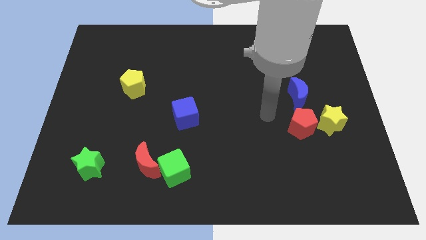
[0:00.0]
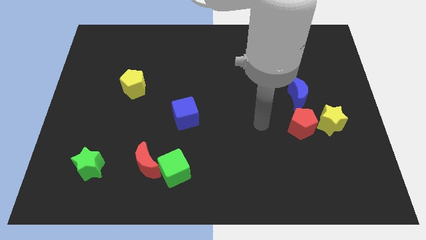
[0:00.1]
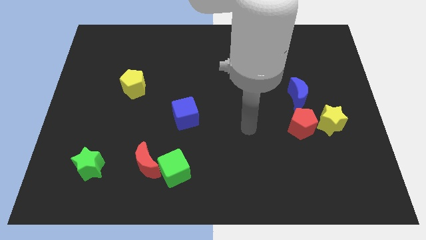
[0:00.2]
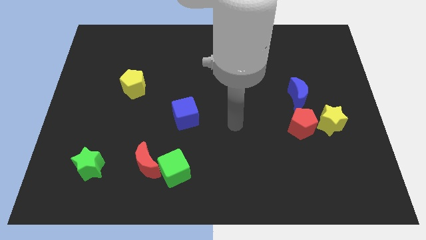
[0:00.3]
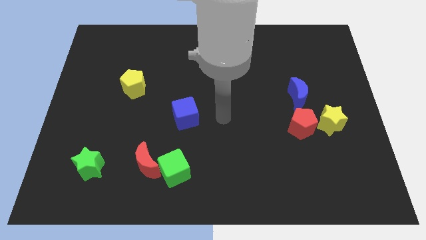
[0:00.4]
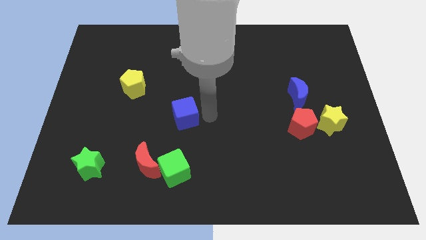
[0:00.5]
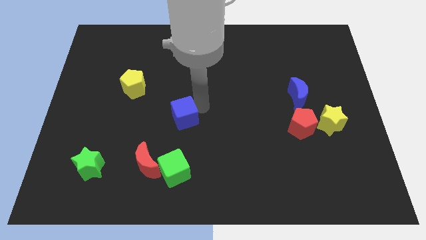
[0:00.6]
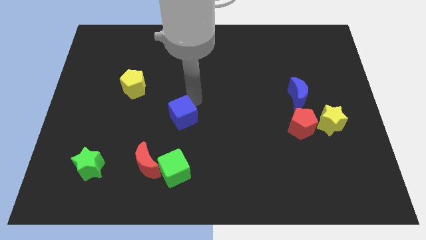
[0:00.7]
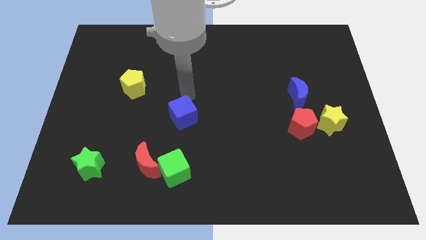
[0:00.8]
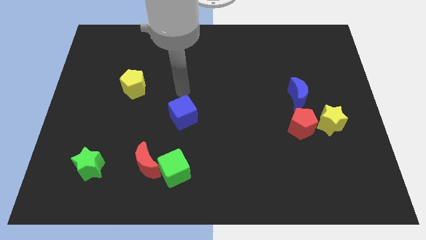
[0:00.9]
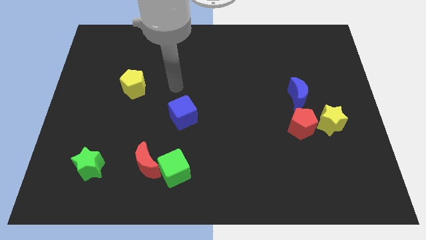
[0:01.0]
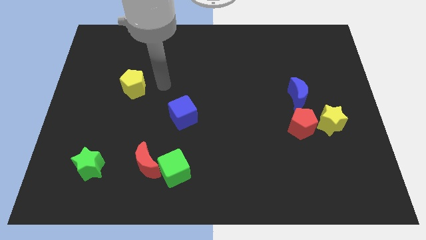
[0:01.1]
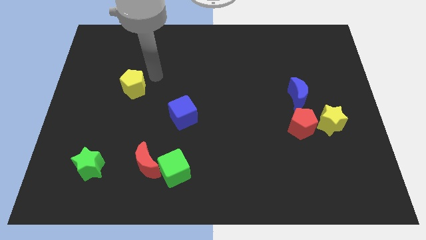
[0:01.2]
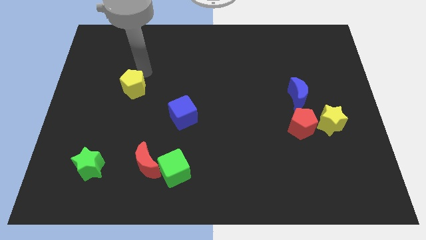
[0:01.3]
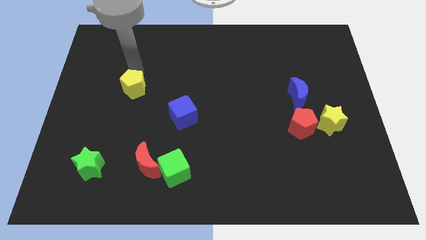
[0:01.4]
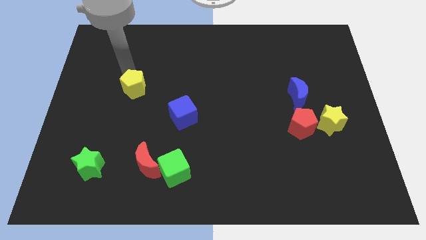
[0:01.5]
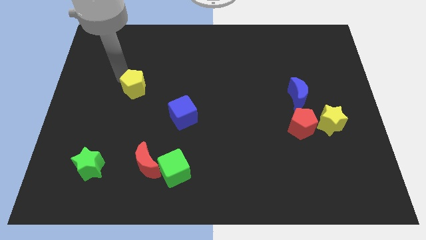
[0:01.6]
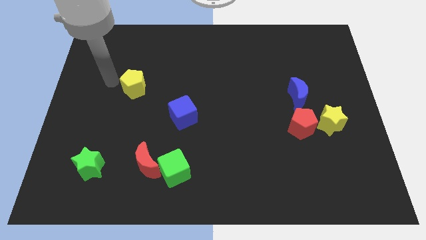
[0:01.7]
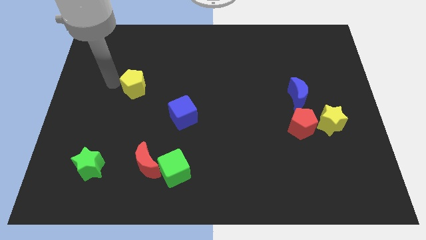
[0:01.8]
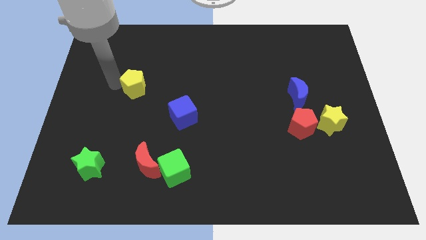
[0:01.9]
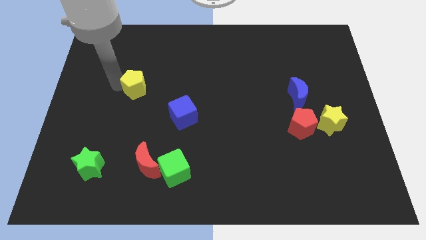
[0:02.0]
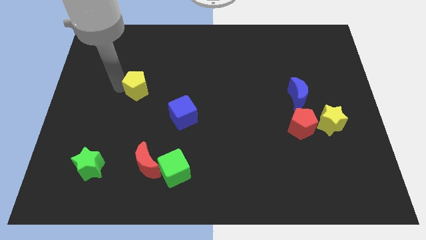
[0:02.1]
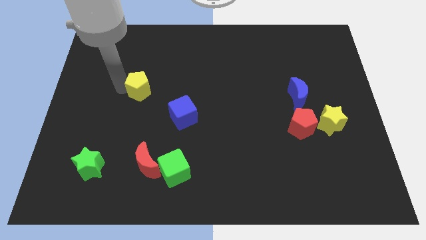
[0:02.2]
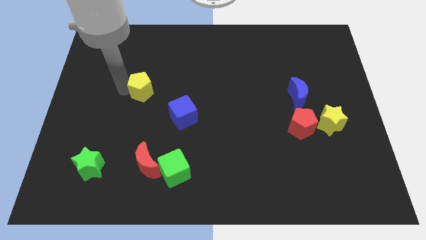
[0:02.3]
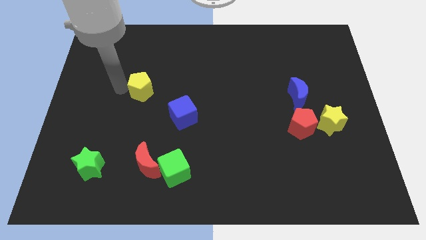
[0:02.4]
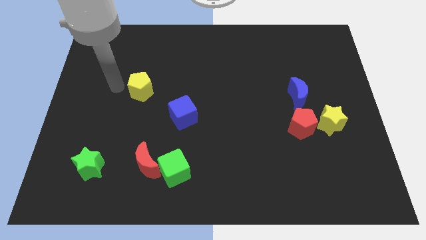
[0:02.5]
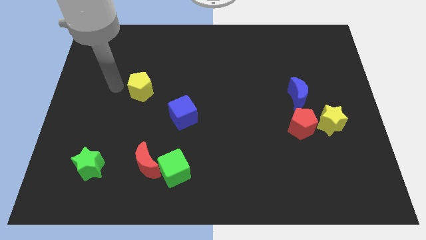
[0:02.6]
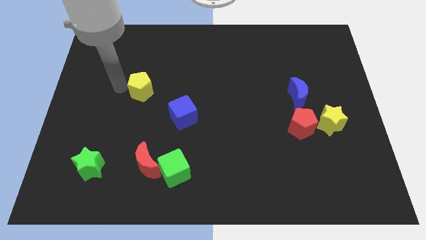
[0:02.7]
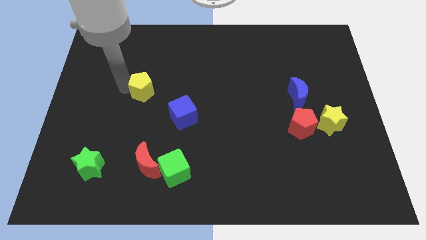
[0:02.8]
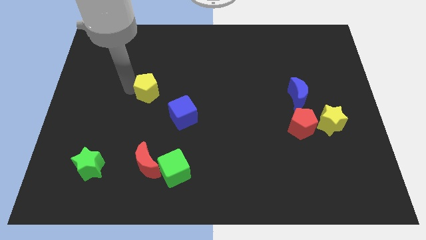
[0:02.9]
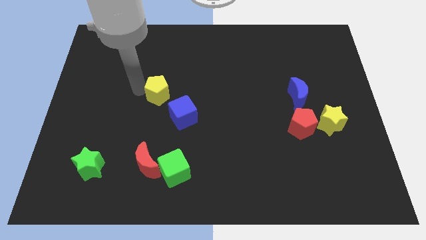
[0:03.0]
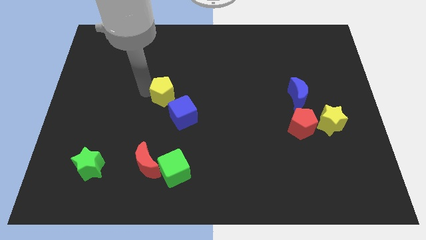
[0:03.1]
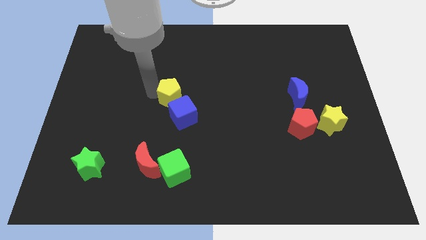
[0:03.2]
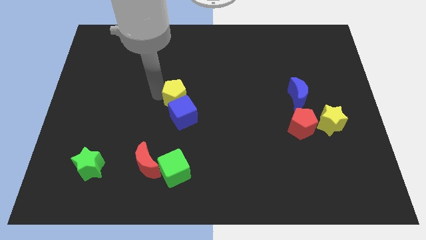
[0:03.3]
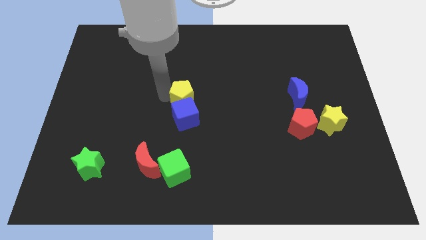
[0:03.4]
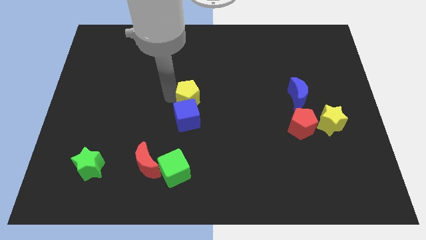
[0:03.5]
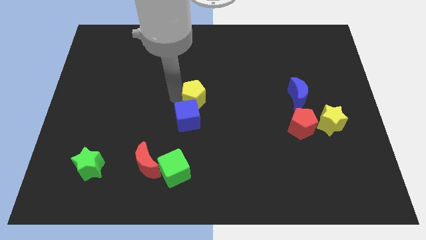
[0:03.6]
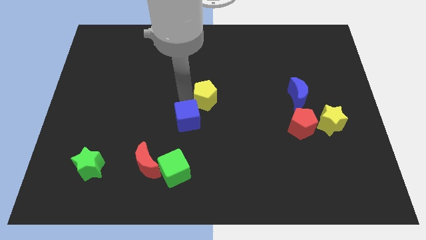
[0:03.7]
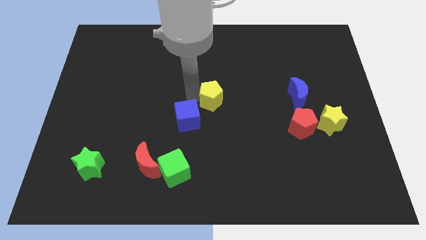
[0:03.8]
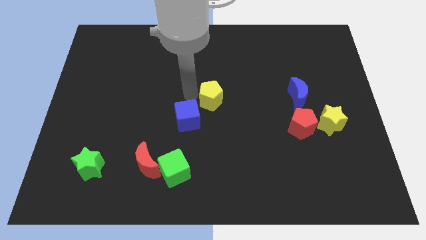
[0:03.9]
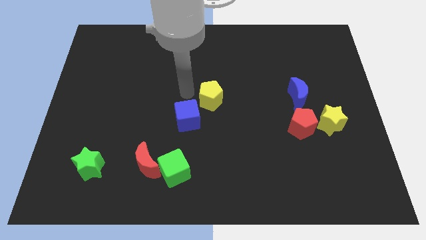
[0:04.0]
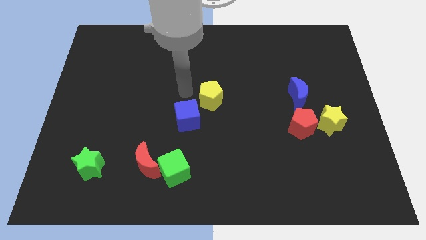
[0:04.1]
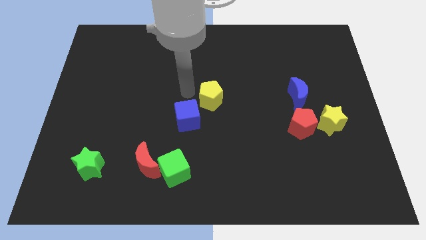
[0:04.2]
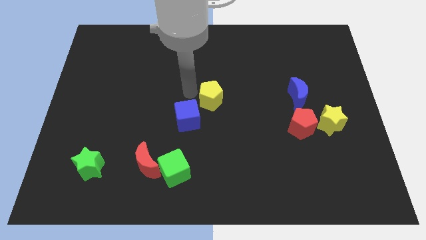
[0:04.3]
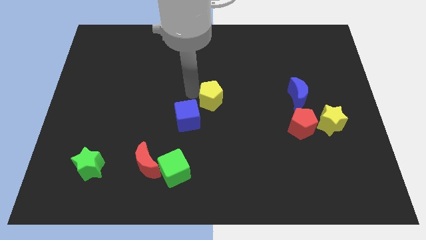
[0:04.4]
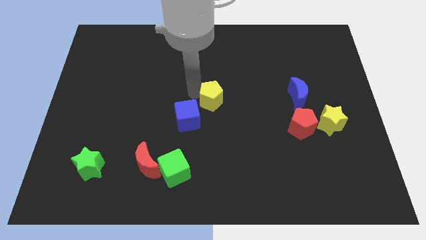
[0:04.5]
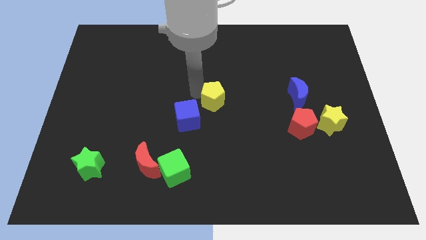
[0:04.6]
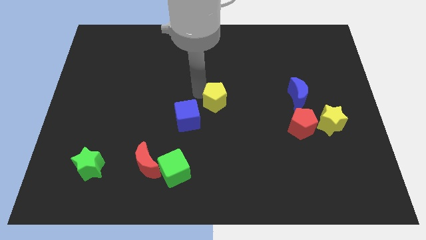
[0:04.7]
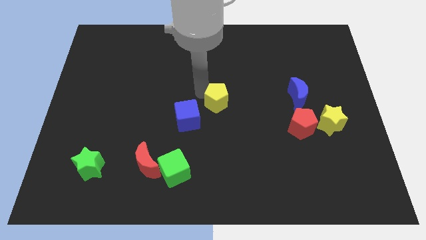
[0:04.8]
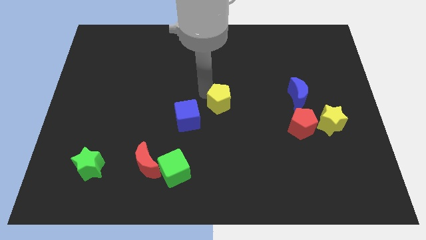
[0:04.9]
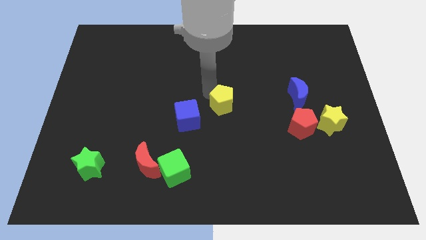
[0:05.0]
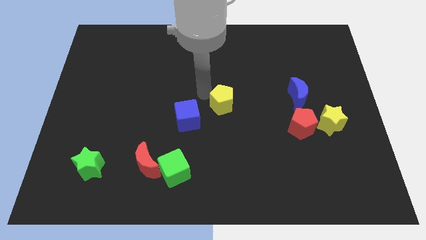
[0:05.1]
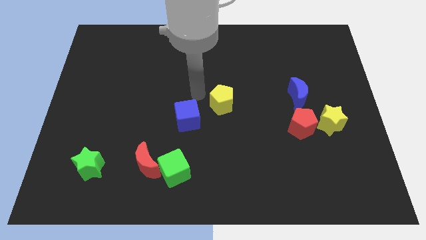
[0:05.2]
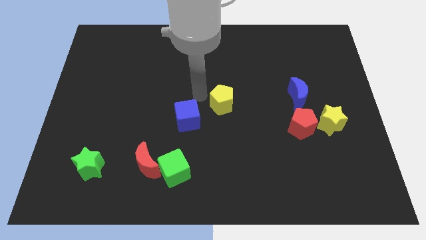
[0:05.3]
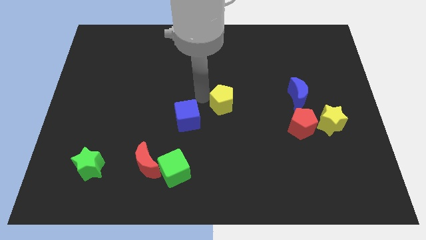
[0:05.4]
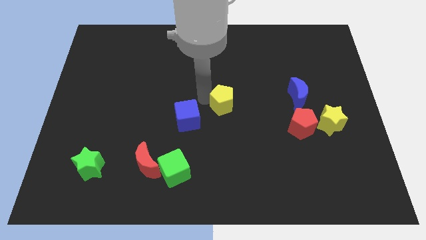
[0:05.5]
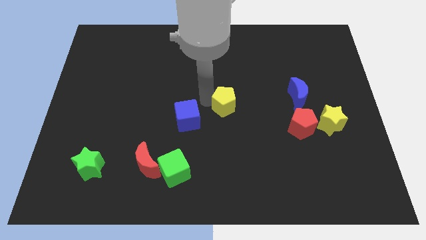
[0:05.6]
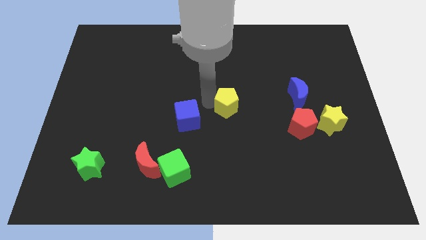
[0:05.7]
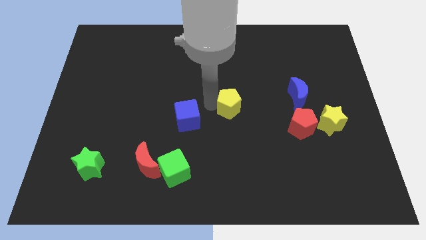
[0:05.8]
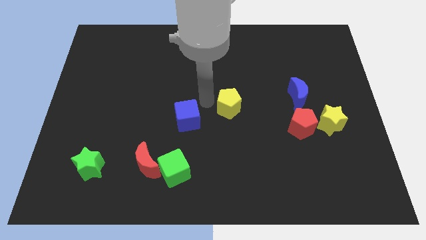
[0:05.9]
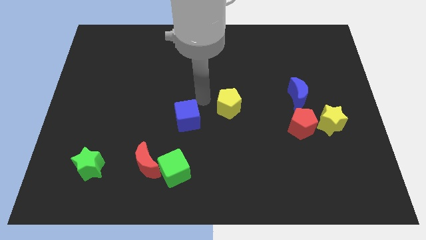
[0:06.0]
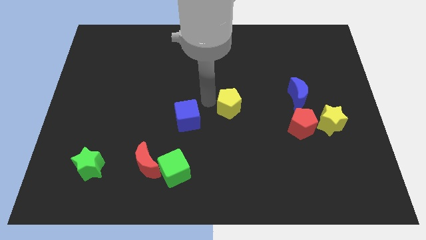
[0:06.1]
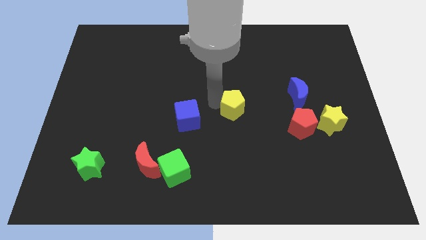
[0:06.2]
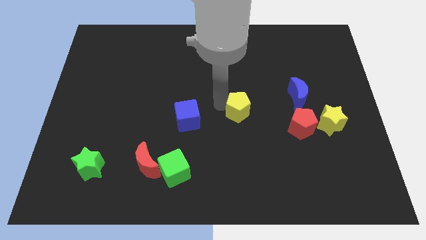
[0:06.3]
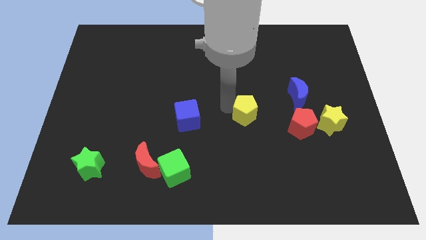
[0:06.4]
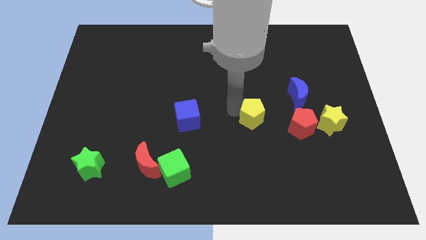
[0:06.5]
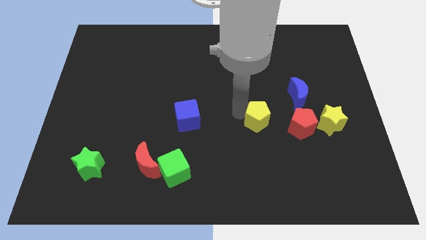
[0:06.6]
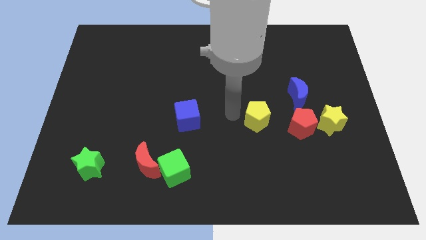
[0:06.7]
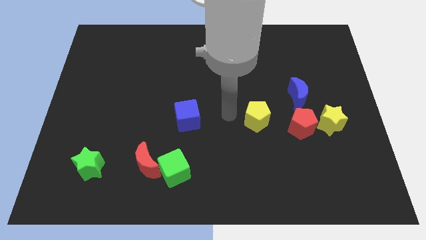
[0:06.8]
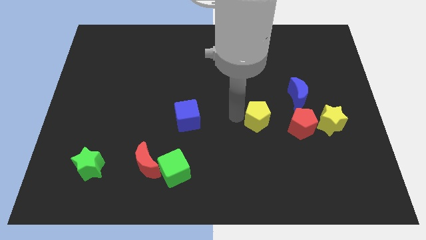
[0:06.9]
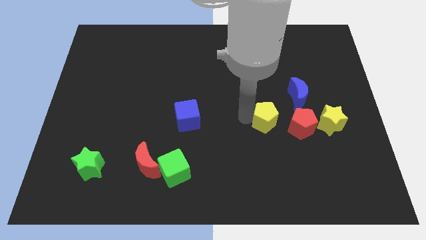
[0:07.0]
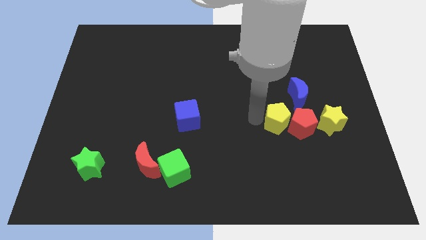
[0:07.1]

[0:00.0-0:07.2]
put the yellow pentagon to the red pentagon

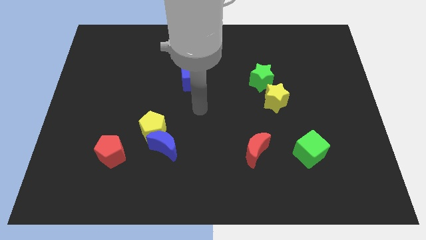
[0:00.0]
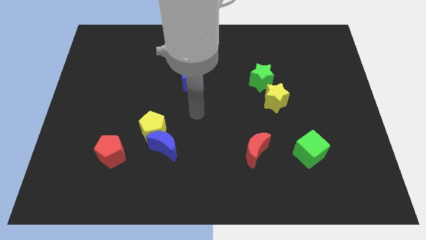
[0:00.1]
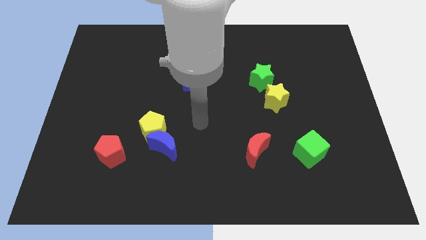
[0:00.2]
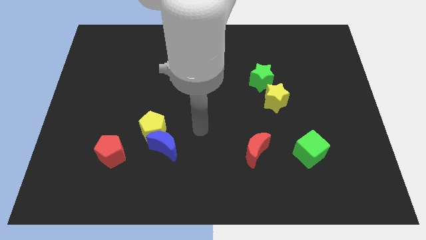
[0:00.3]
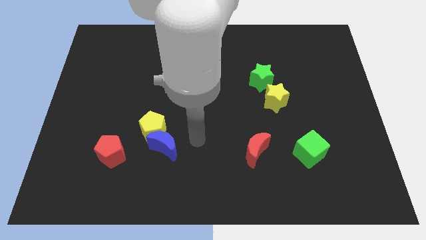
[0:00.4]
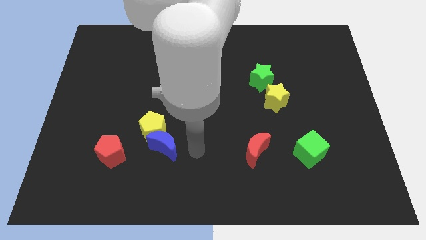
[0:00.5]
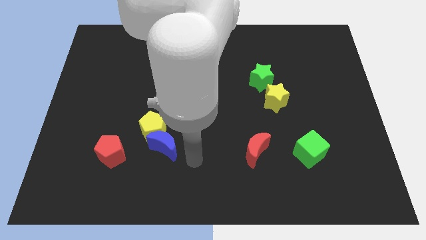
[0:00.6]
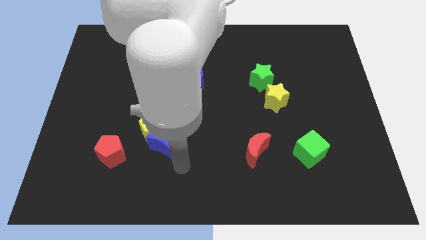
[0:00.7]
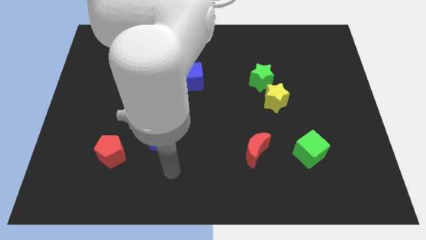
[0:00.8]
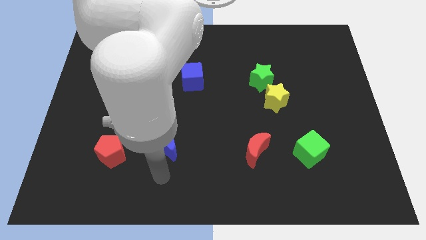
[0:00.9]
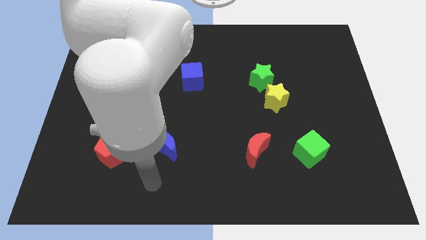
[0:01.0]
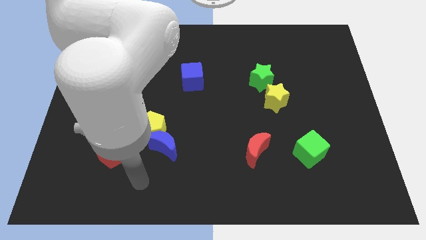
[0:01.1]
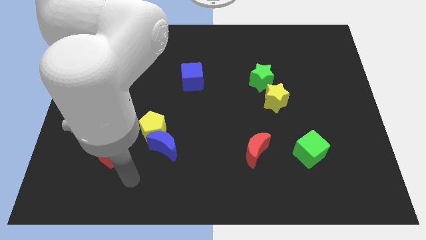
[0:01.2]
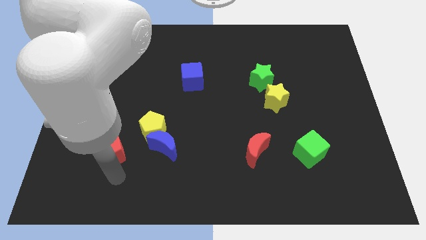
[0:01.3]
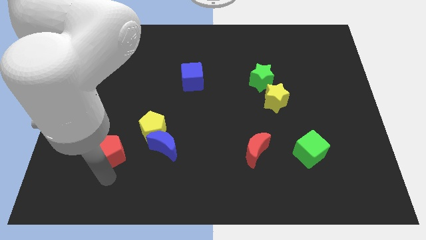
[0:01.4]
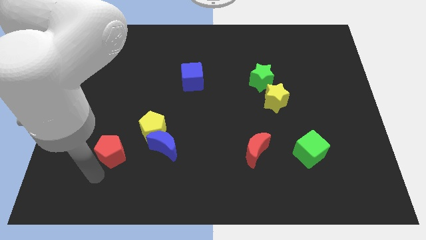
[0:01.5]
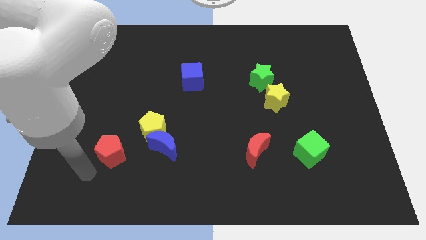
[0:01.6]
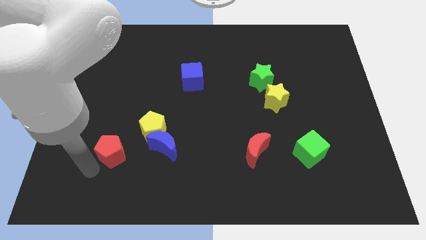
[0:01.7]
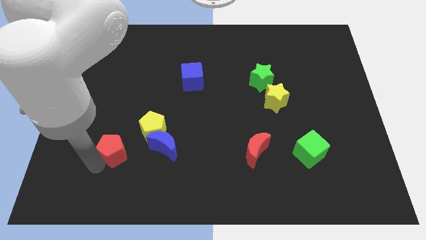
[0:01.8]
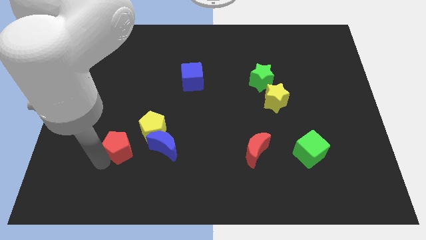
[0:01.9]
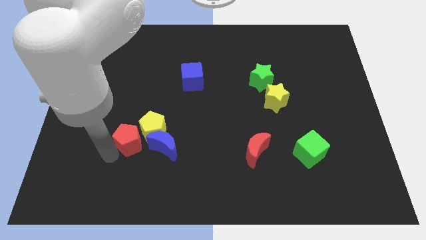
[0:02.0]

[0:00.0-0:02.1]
move the red pentagon towards the yellow pentagon
